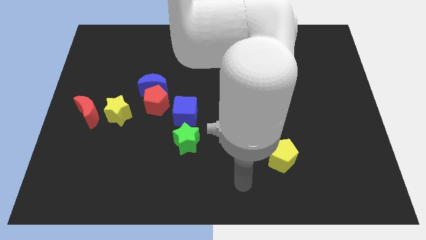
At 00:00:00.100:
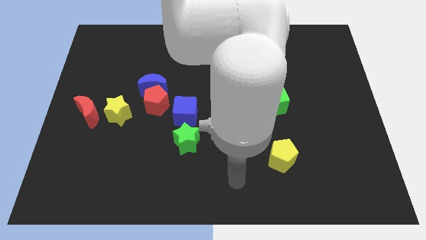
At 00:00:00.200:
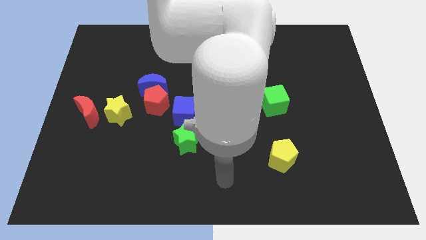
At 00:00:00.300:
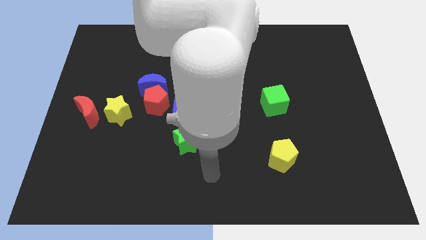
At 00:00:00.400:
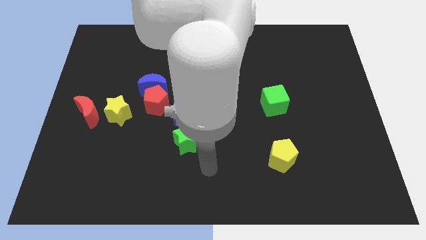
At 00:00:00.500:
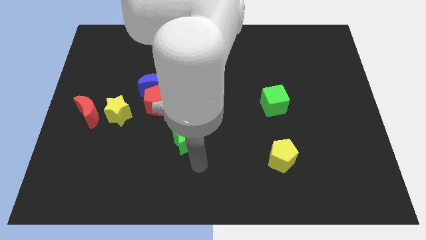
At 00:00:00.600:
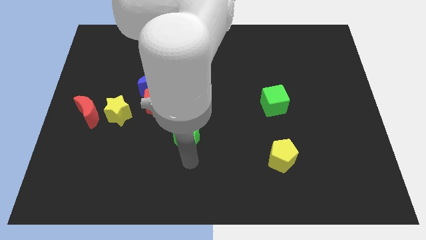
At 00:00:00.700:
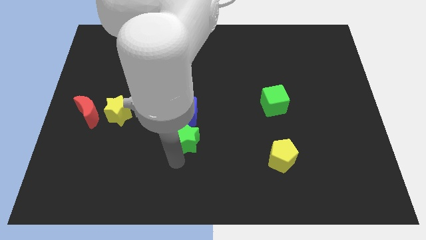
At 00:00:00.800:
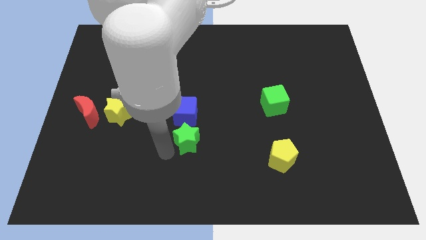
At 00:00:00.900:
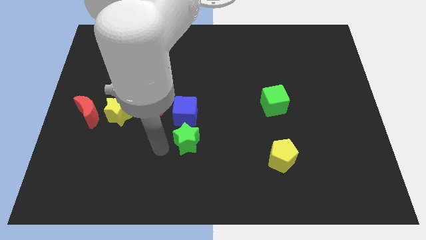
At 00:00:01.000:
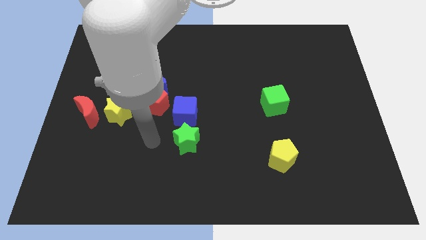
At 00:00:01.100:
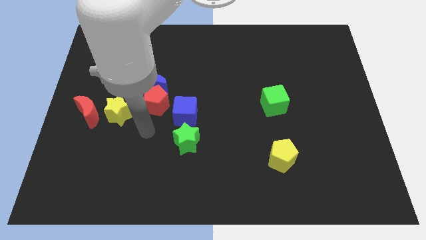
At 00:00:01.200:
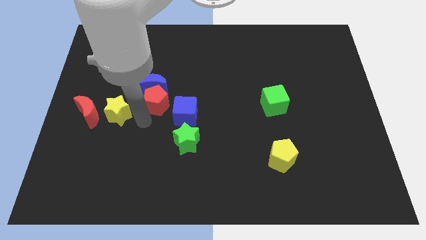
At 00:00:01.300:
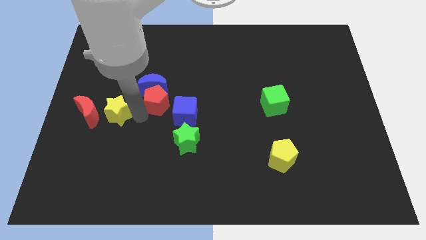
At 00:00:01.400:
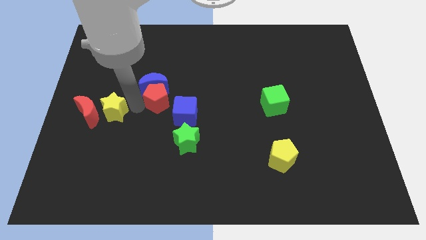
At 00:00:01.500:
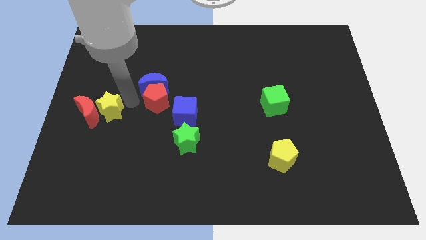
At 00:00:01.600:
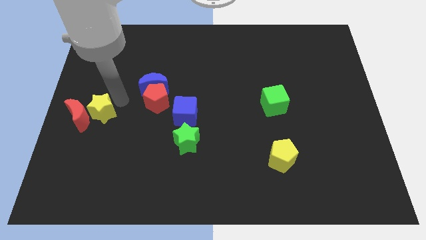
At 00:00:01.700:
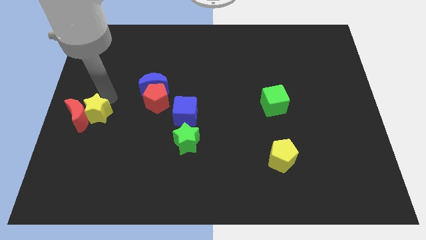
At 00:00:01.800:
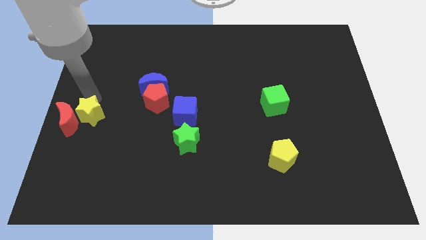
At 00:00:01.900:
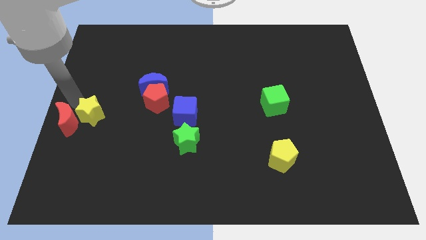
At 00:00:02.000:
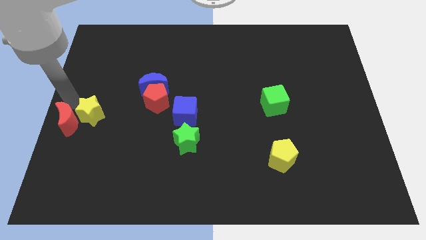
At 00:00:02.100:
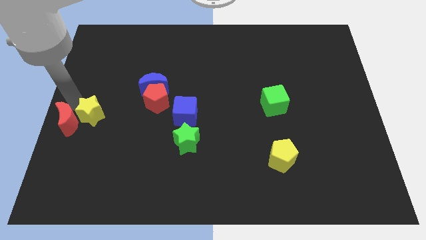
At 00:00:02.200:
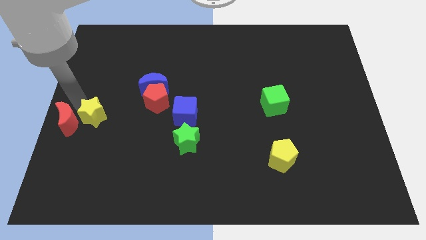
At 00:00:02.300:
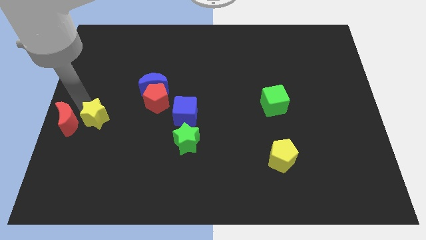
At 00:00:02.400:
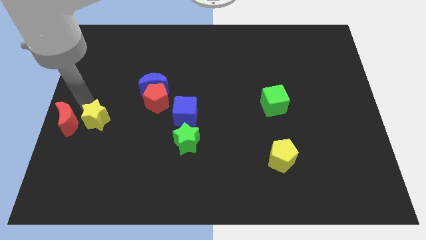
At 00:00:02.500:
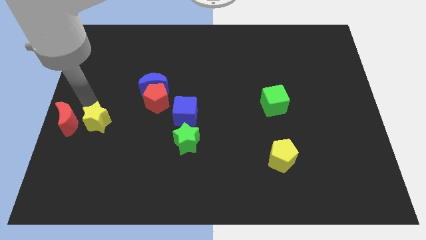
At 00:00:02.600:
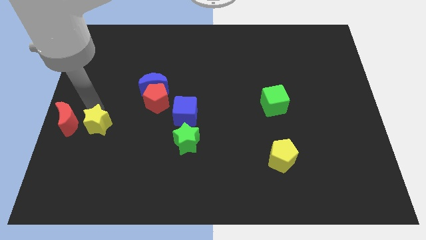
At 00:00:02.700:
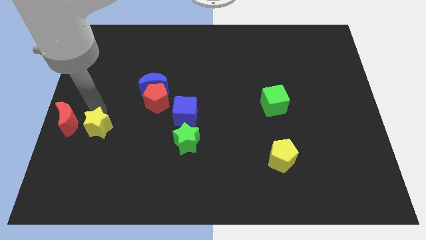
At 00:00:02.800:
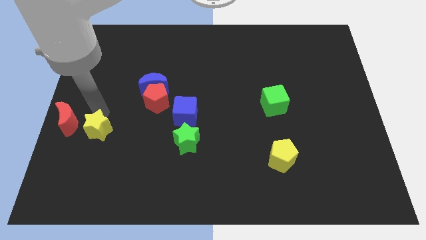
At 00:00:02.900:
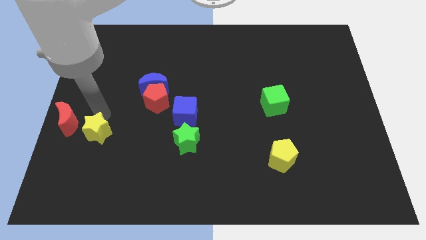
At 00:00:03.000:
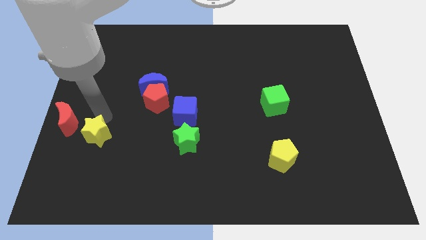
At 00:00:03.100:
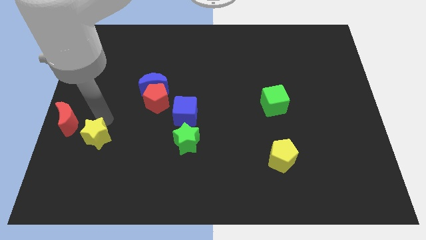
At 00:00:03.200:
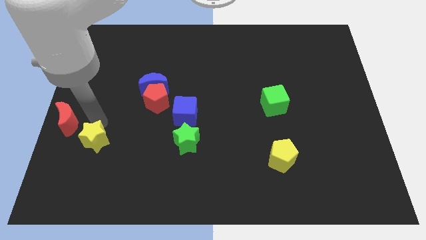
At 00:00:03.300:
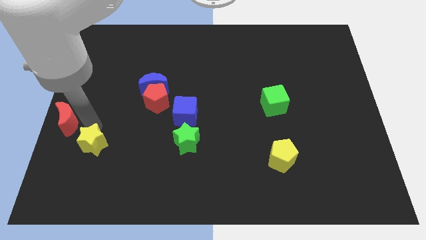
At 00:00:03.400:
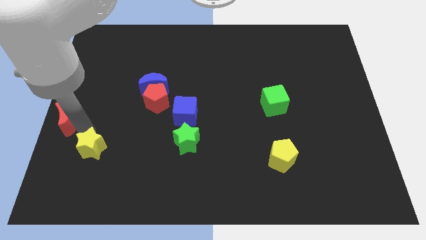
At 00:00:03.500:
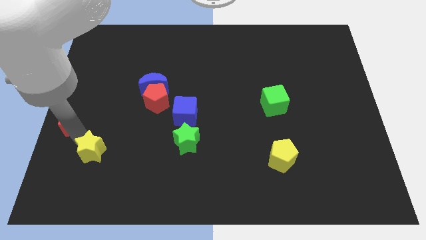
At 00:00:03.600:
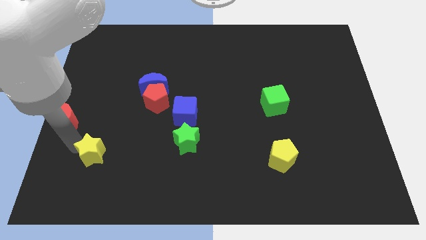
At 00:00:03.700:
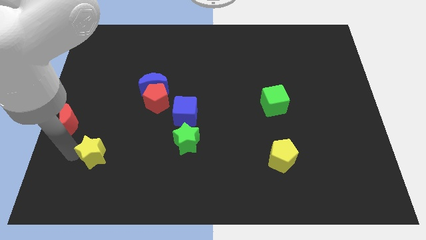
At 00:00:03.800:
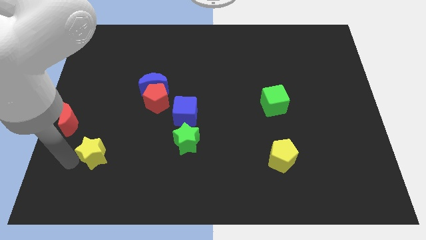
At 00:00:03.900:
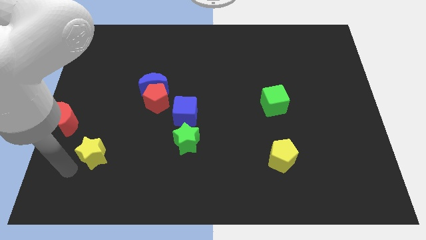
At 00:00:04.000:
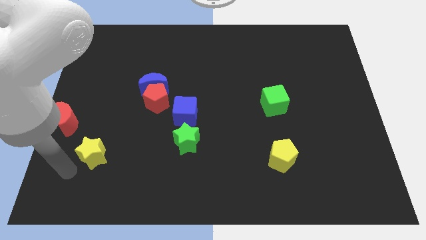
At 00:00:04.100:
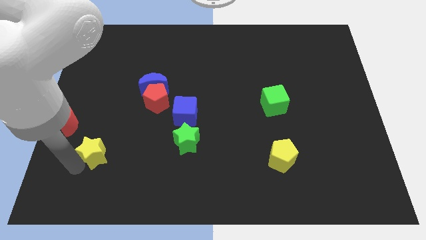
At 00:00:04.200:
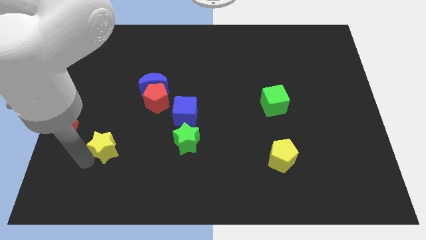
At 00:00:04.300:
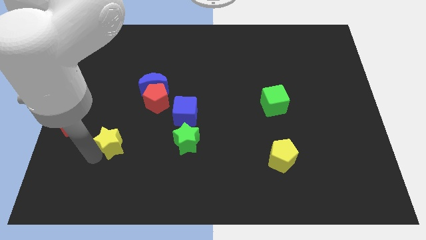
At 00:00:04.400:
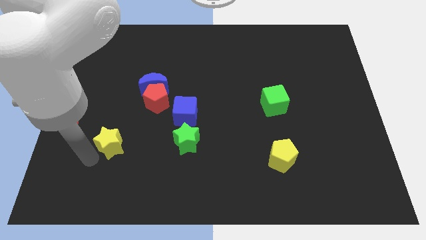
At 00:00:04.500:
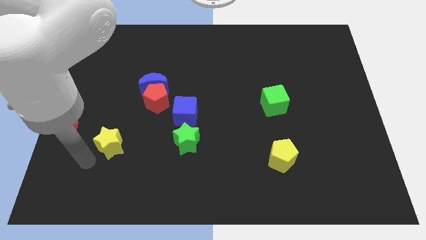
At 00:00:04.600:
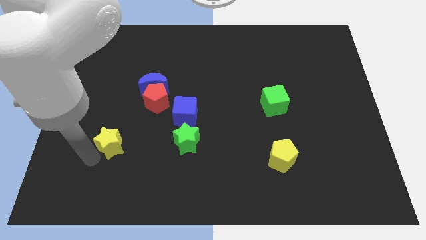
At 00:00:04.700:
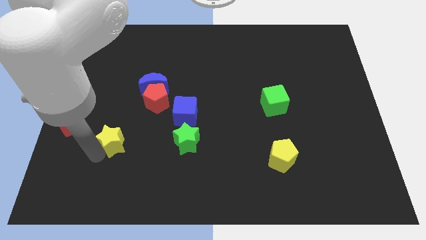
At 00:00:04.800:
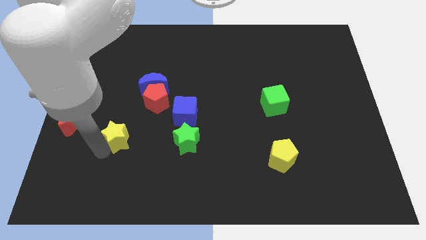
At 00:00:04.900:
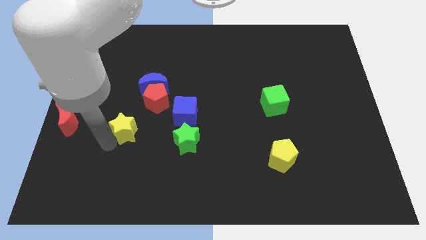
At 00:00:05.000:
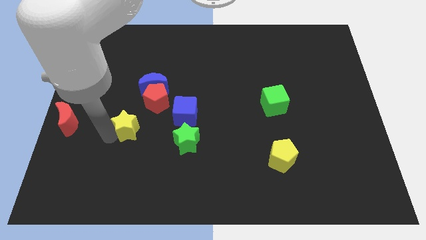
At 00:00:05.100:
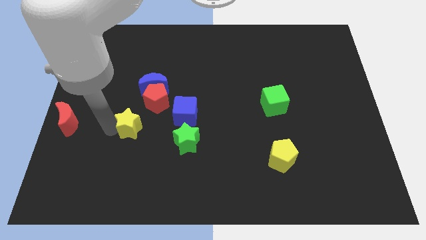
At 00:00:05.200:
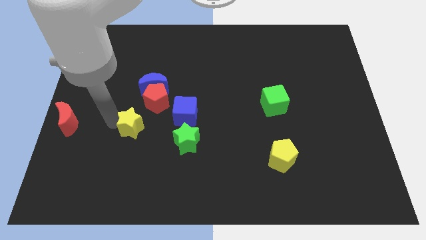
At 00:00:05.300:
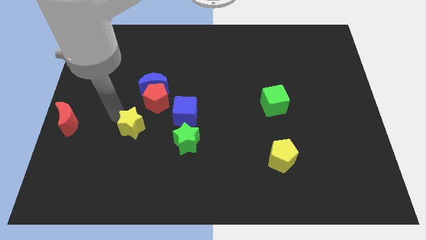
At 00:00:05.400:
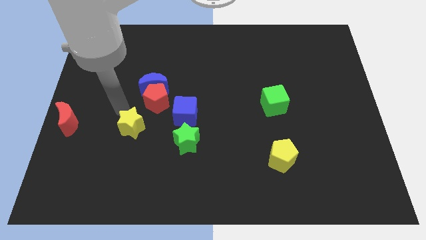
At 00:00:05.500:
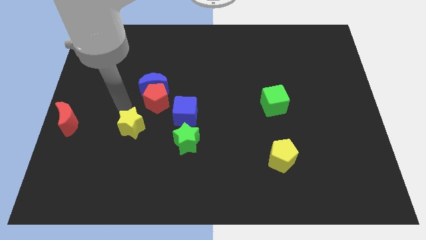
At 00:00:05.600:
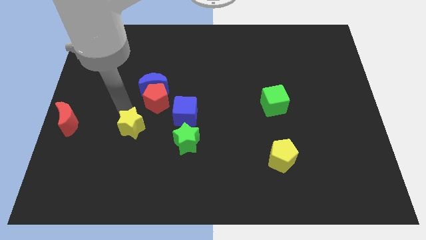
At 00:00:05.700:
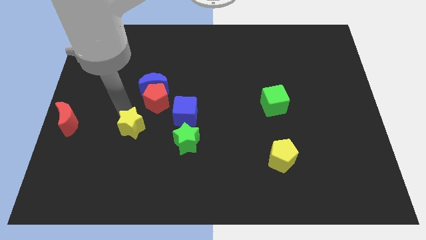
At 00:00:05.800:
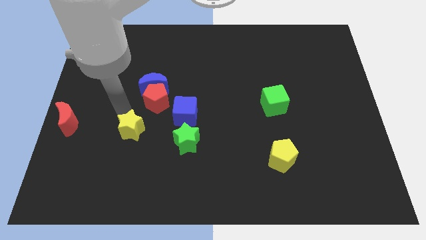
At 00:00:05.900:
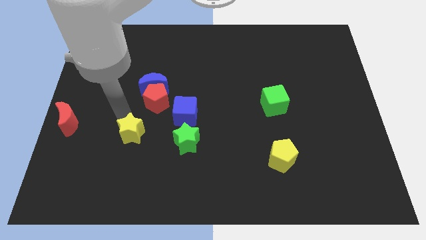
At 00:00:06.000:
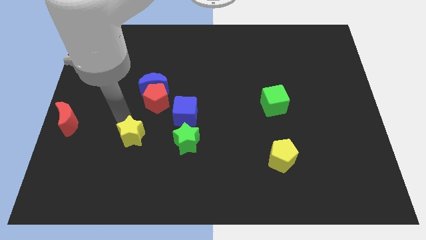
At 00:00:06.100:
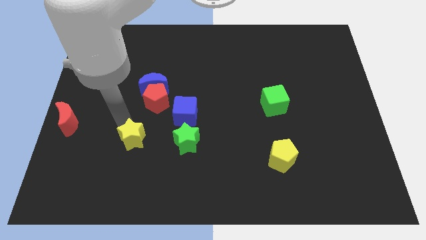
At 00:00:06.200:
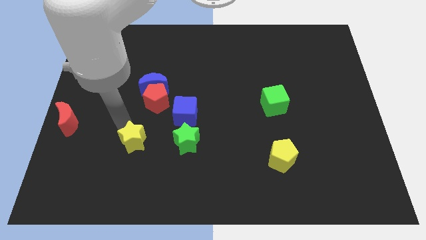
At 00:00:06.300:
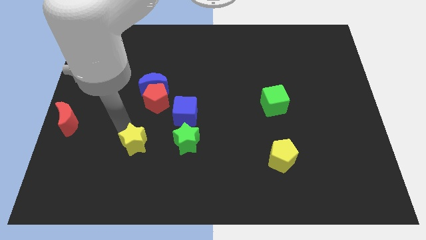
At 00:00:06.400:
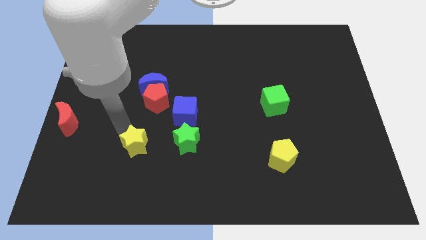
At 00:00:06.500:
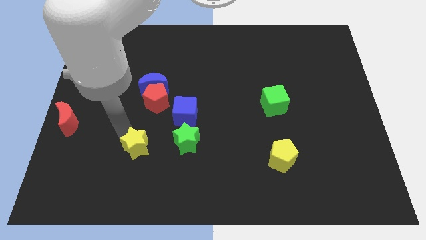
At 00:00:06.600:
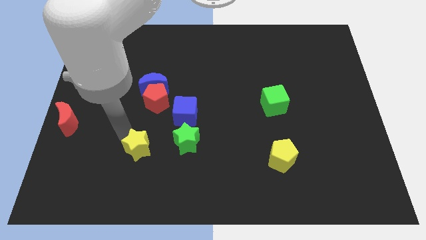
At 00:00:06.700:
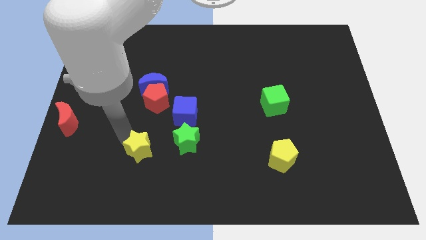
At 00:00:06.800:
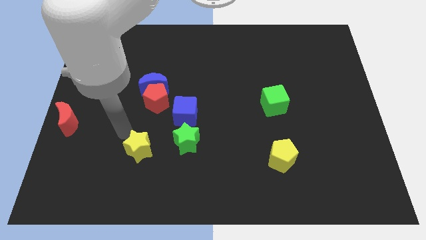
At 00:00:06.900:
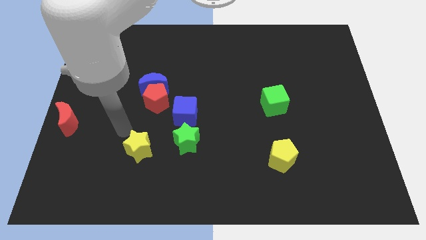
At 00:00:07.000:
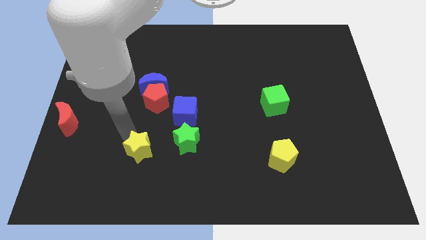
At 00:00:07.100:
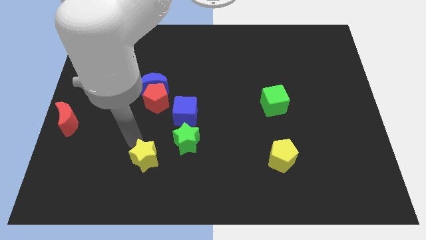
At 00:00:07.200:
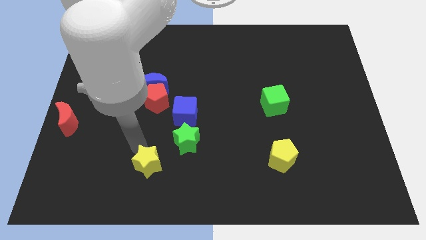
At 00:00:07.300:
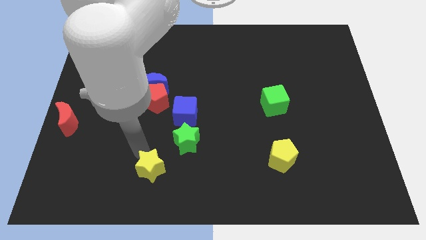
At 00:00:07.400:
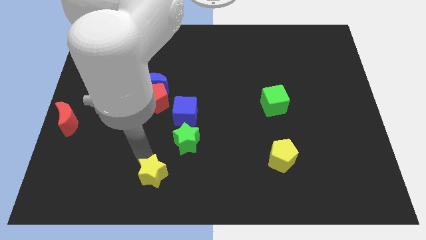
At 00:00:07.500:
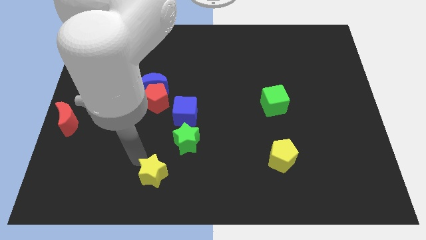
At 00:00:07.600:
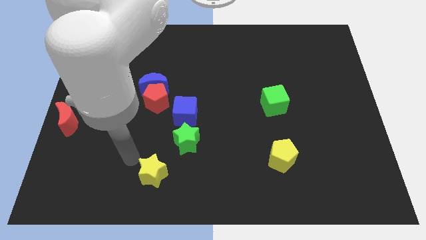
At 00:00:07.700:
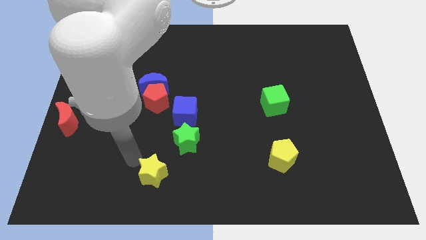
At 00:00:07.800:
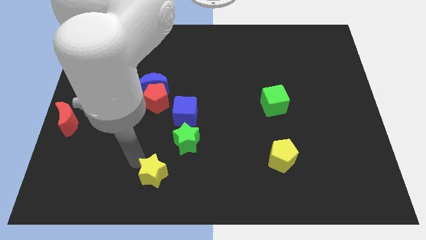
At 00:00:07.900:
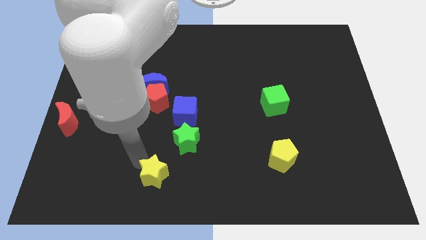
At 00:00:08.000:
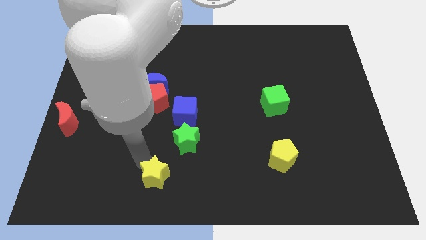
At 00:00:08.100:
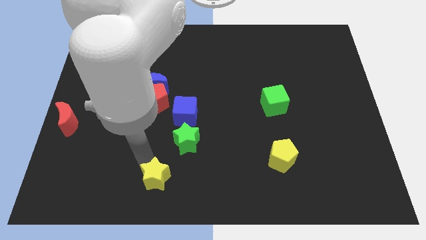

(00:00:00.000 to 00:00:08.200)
put the yellow star to the bottom
